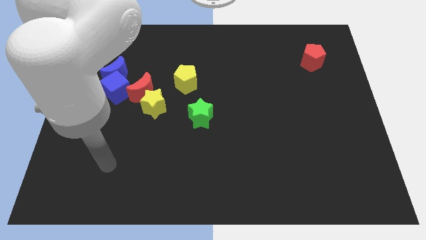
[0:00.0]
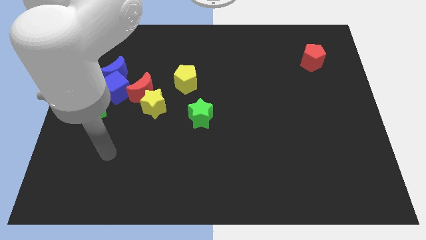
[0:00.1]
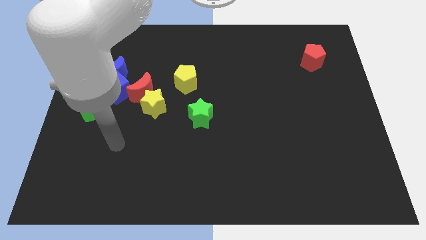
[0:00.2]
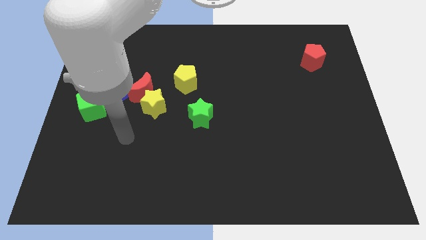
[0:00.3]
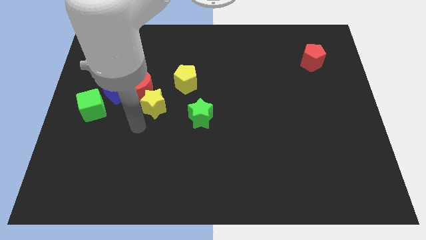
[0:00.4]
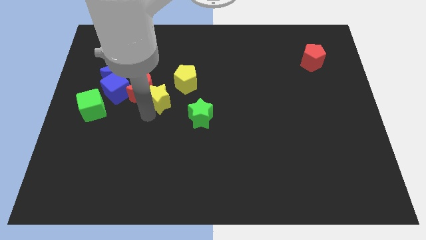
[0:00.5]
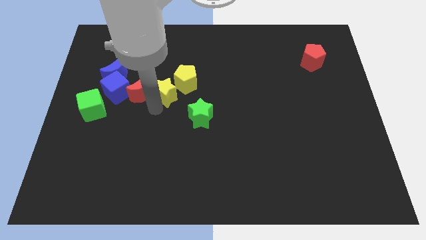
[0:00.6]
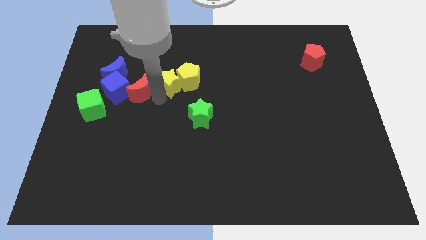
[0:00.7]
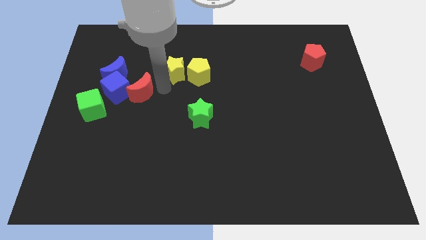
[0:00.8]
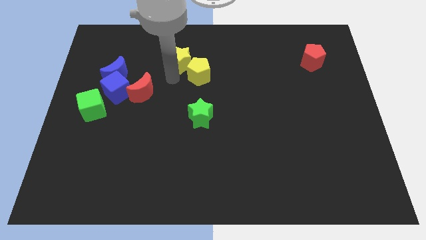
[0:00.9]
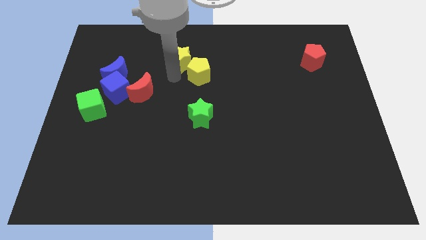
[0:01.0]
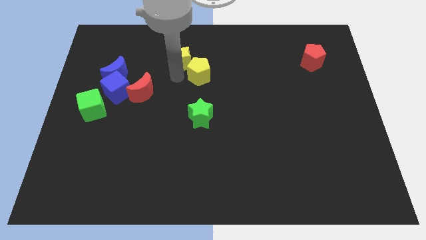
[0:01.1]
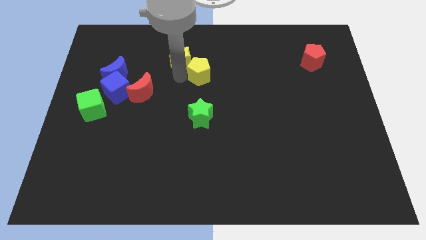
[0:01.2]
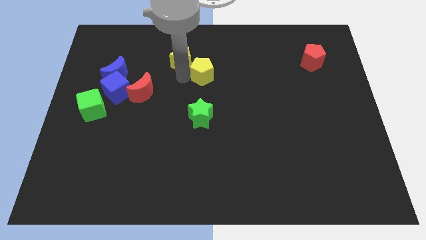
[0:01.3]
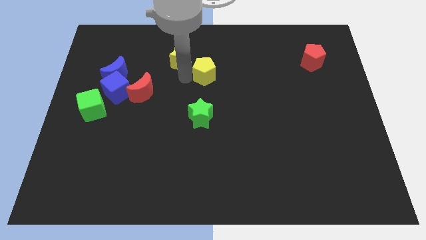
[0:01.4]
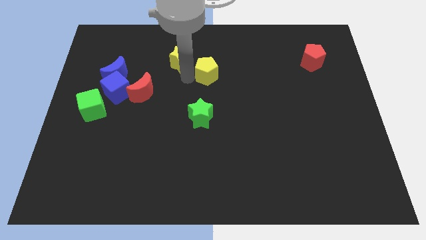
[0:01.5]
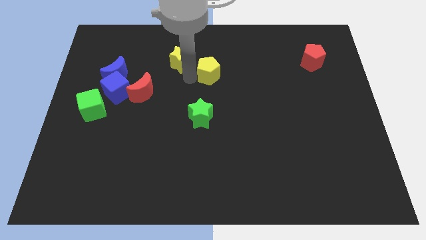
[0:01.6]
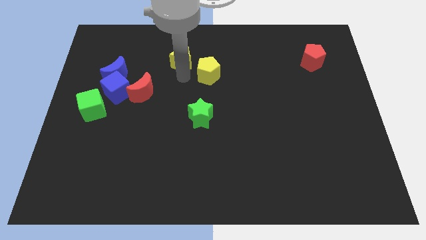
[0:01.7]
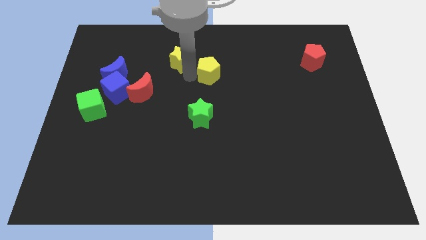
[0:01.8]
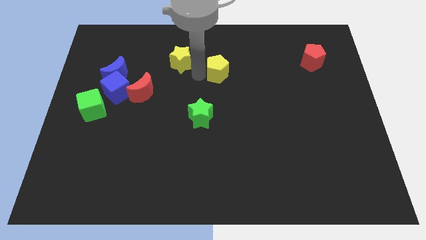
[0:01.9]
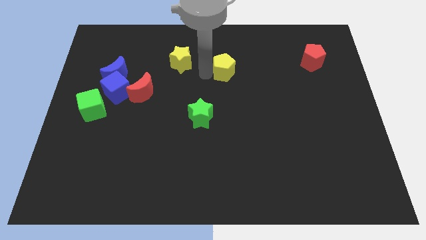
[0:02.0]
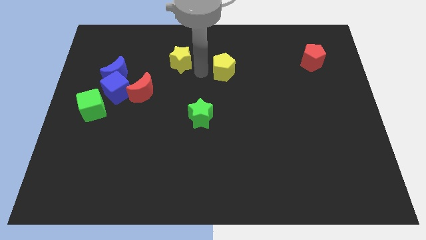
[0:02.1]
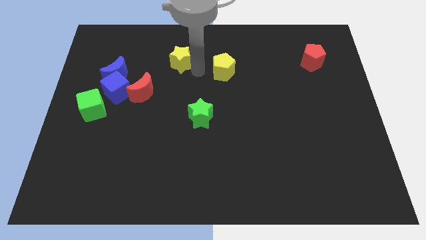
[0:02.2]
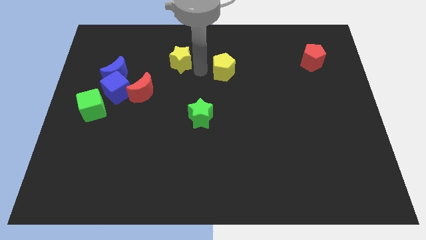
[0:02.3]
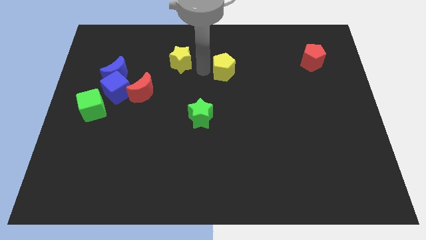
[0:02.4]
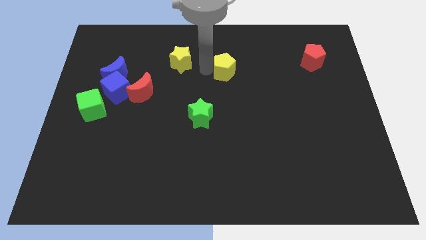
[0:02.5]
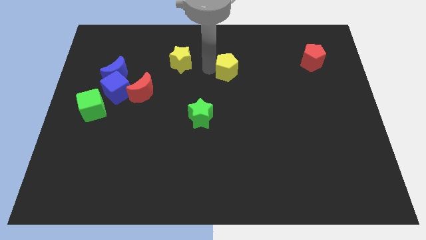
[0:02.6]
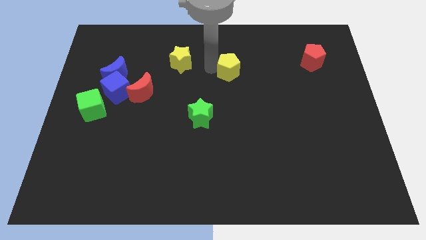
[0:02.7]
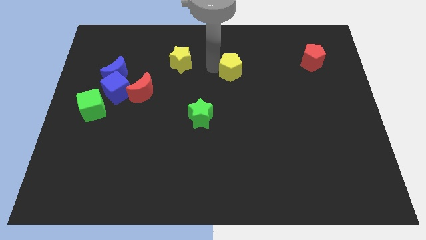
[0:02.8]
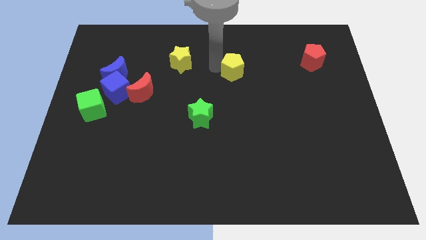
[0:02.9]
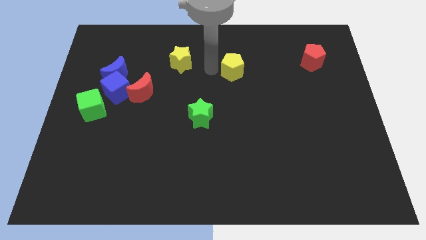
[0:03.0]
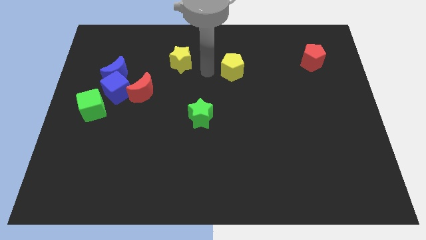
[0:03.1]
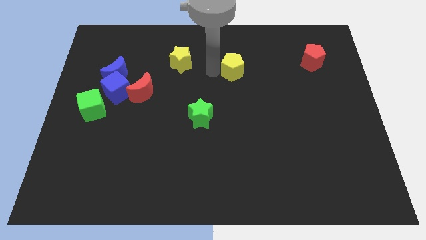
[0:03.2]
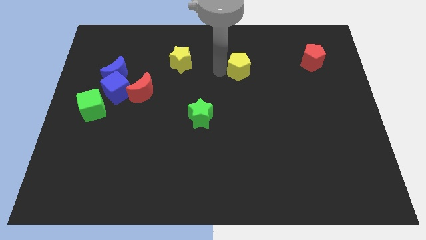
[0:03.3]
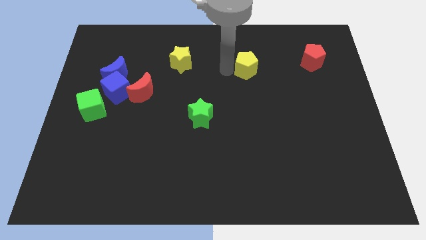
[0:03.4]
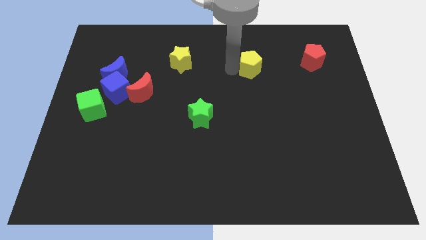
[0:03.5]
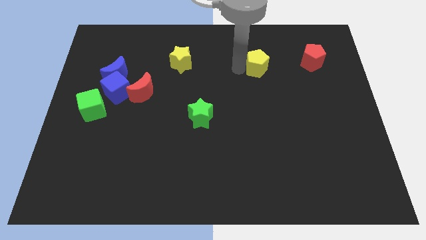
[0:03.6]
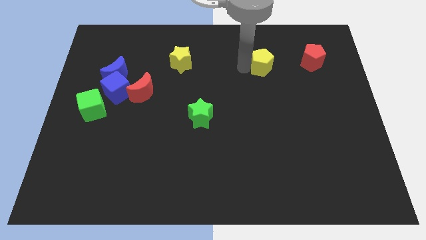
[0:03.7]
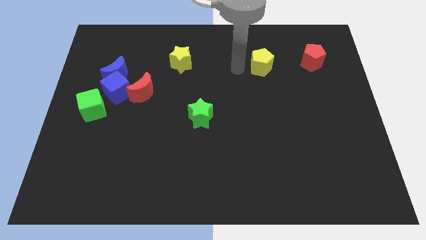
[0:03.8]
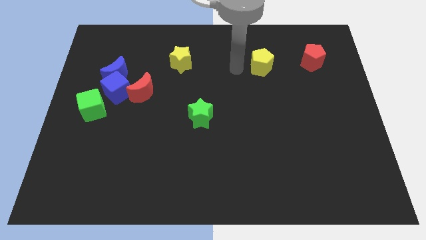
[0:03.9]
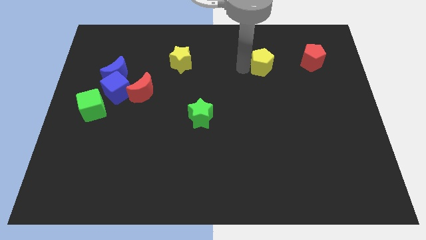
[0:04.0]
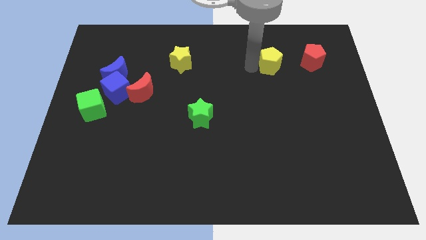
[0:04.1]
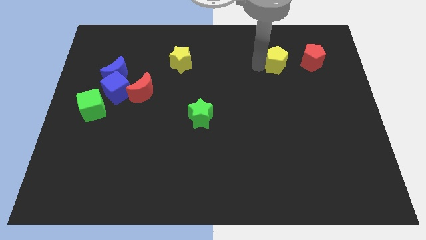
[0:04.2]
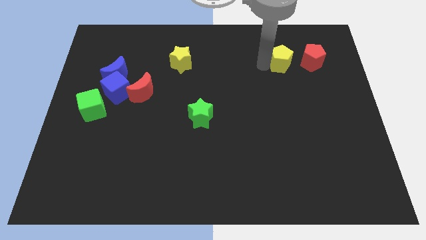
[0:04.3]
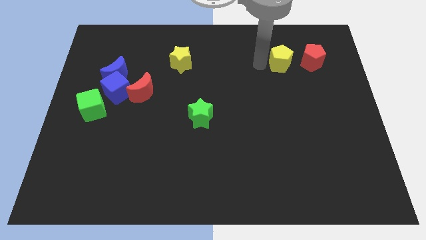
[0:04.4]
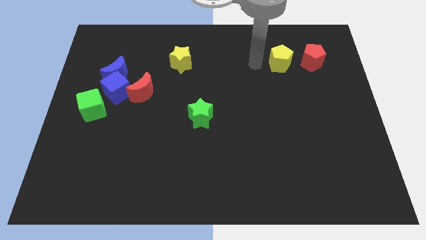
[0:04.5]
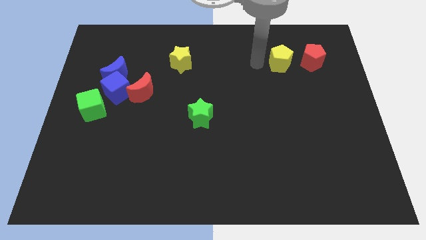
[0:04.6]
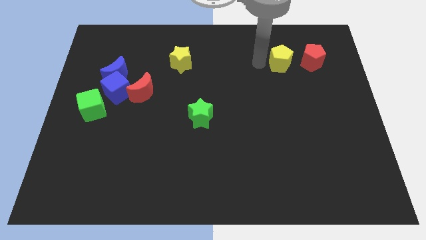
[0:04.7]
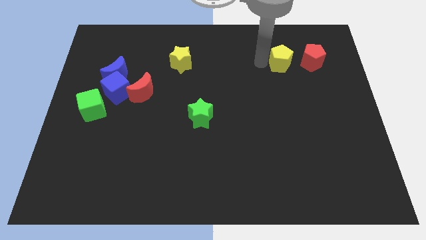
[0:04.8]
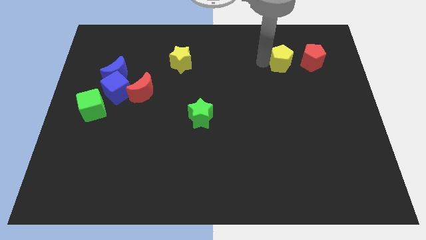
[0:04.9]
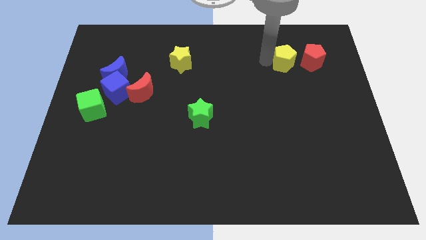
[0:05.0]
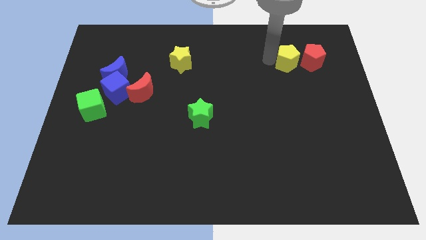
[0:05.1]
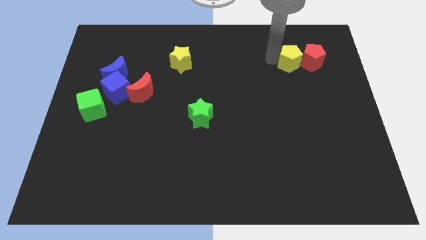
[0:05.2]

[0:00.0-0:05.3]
put the yellow pentagon to the red pentagon

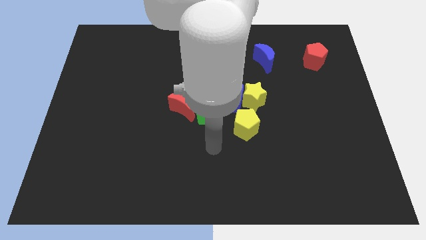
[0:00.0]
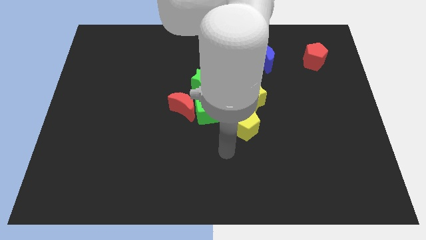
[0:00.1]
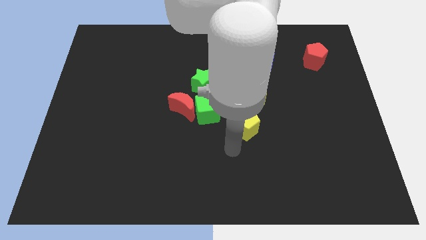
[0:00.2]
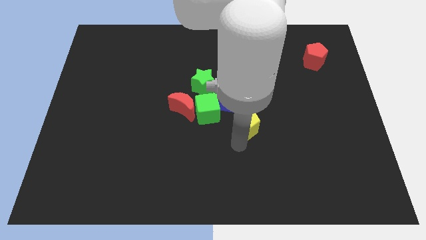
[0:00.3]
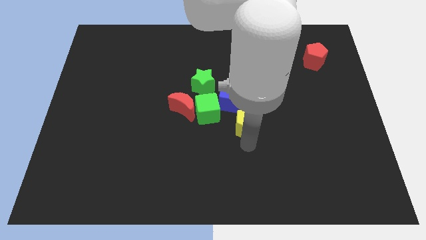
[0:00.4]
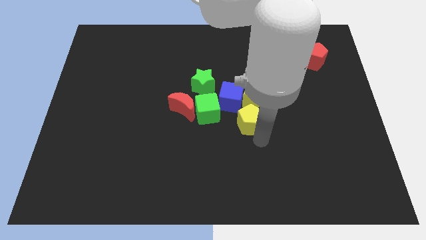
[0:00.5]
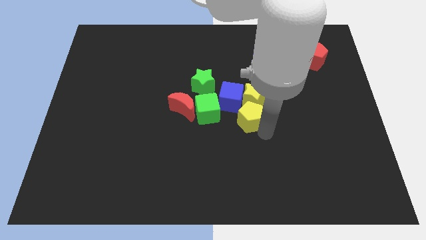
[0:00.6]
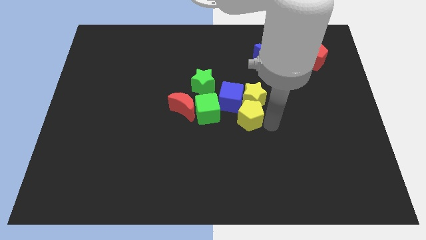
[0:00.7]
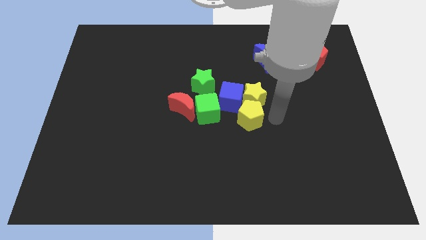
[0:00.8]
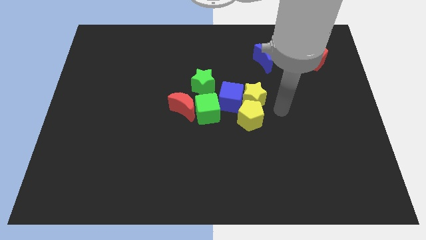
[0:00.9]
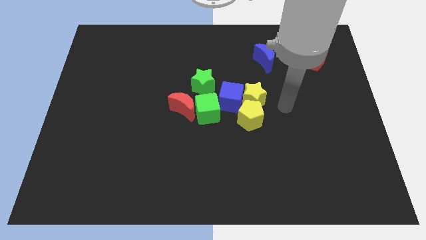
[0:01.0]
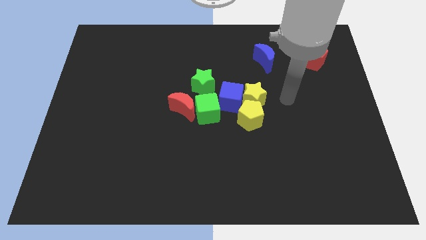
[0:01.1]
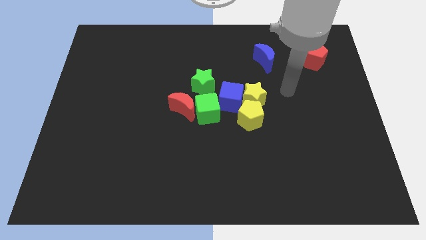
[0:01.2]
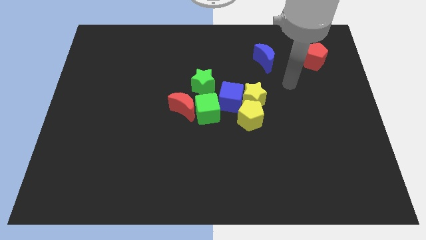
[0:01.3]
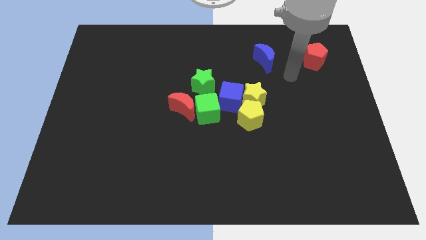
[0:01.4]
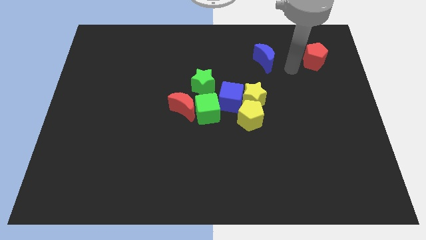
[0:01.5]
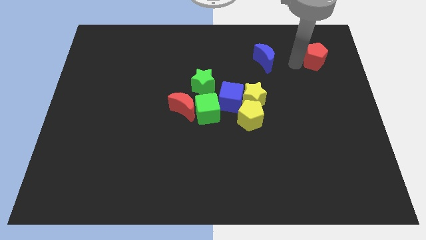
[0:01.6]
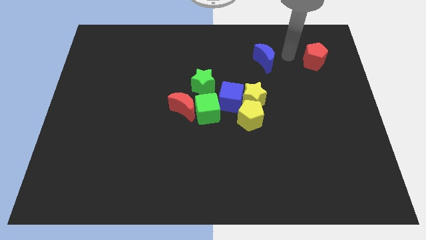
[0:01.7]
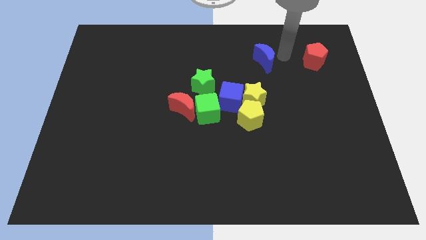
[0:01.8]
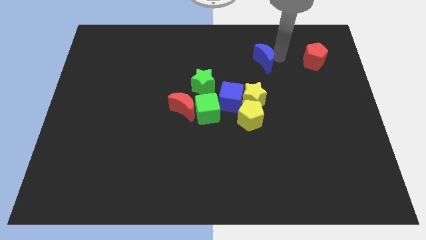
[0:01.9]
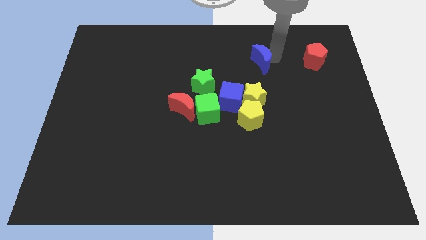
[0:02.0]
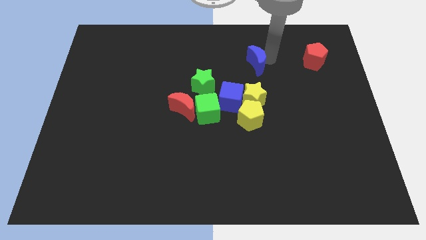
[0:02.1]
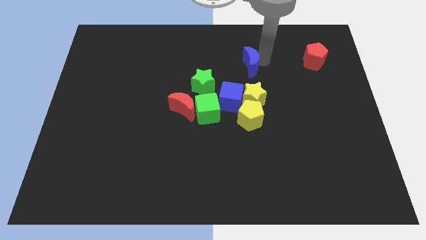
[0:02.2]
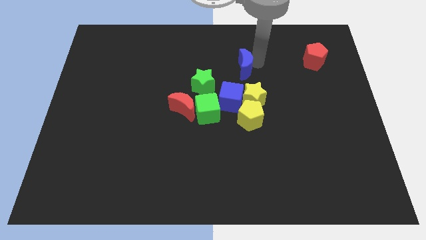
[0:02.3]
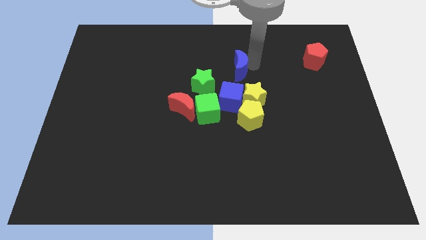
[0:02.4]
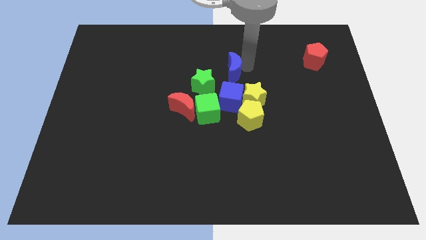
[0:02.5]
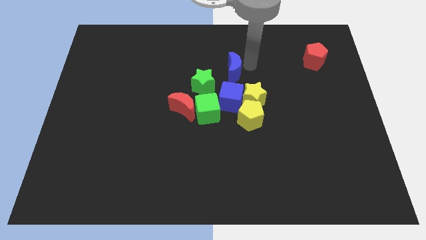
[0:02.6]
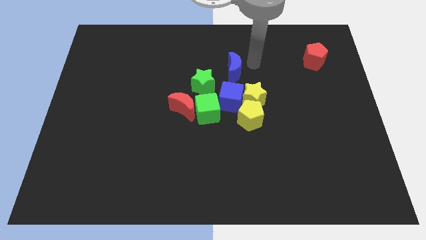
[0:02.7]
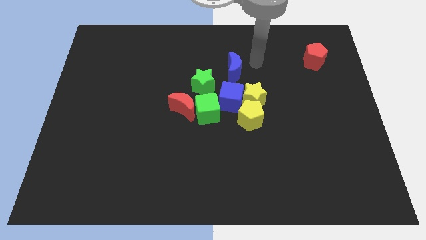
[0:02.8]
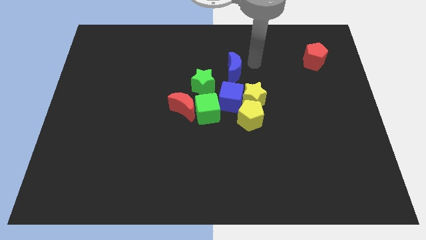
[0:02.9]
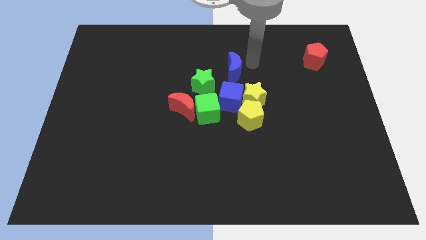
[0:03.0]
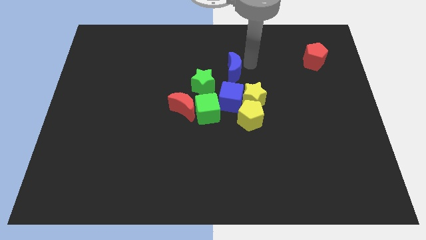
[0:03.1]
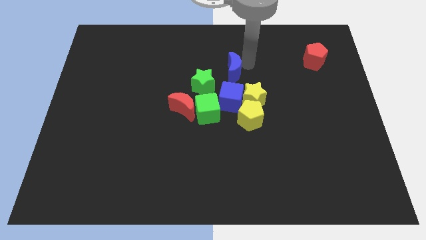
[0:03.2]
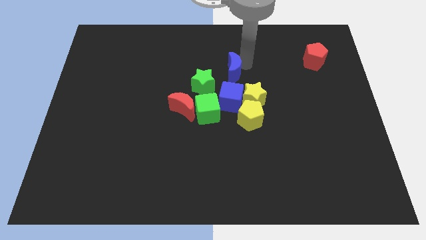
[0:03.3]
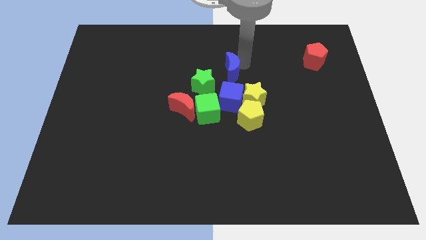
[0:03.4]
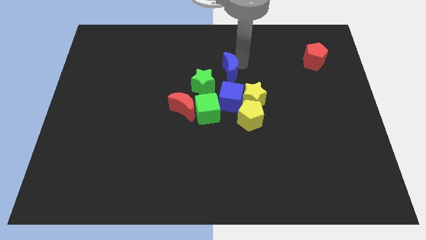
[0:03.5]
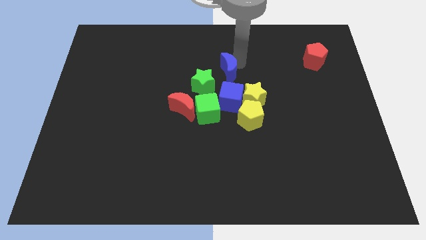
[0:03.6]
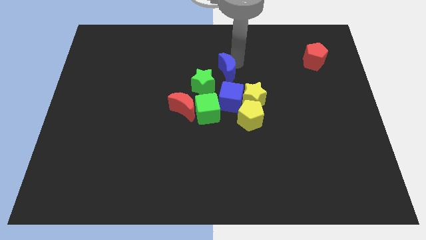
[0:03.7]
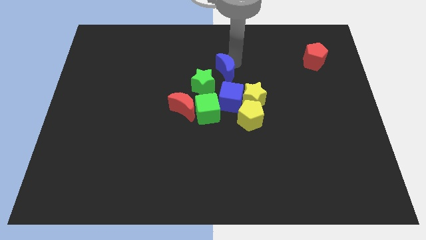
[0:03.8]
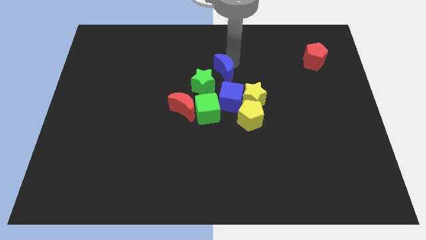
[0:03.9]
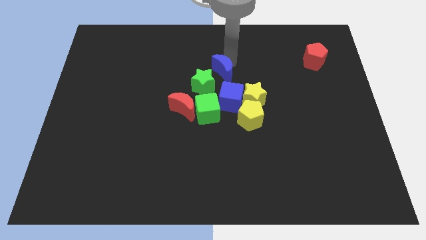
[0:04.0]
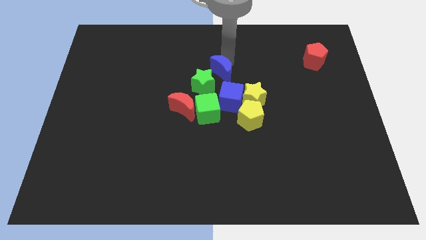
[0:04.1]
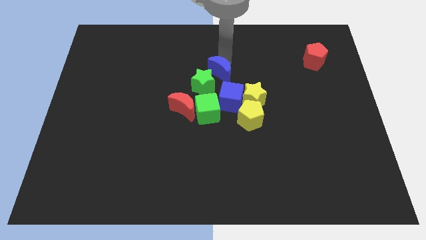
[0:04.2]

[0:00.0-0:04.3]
push the blue moon to the green star
